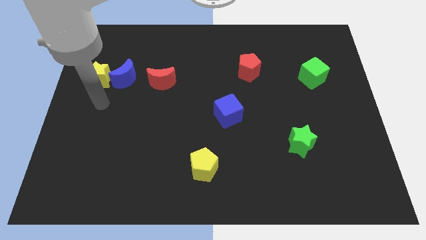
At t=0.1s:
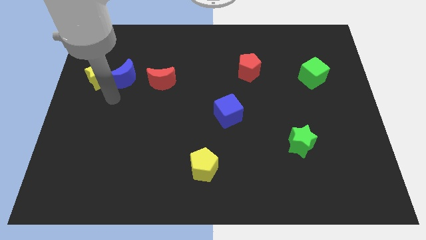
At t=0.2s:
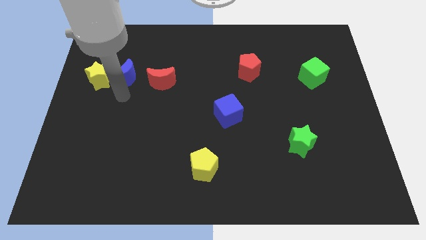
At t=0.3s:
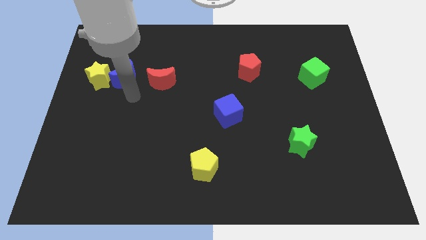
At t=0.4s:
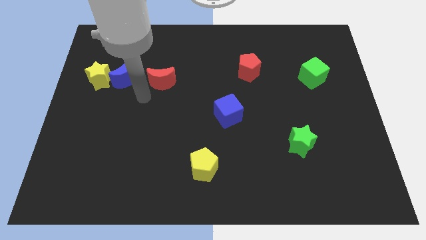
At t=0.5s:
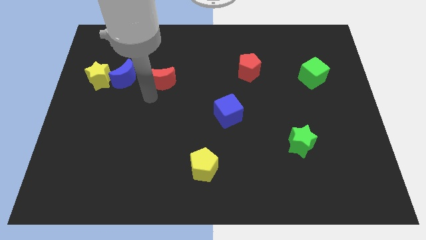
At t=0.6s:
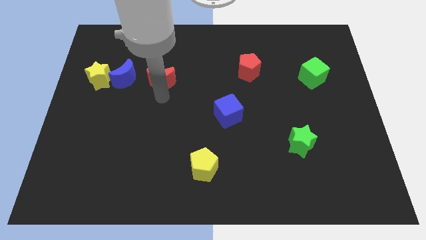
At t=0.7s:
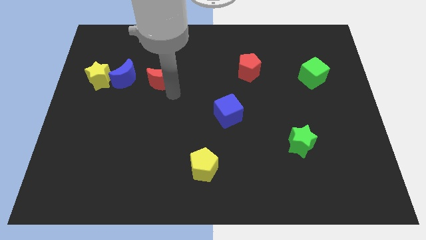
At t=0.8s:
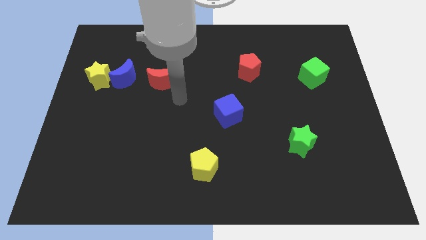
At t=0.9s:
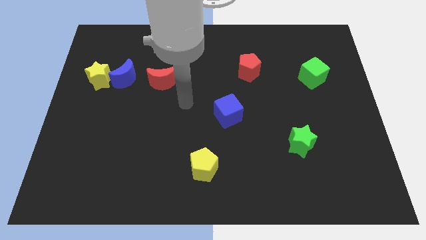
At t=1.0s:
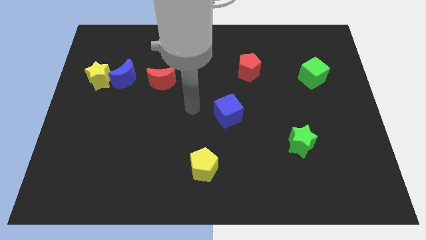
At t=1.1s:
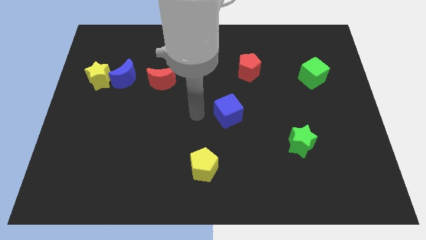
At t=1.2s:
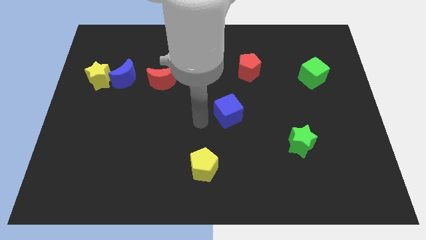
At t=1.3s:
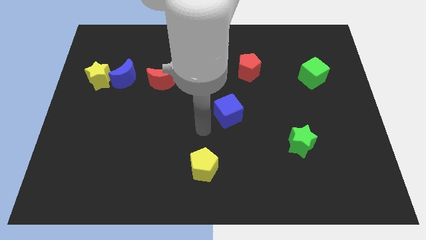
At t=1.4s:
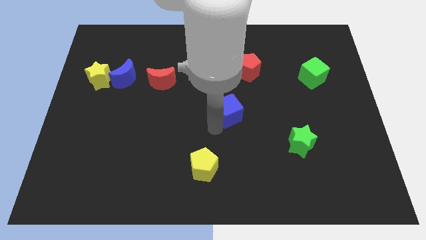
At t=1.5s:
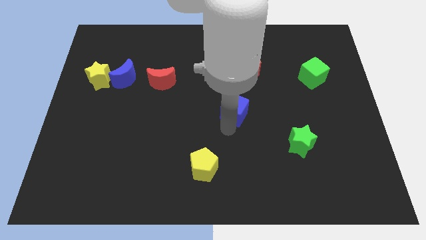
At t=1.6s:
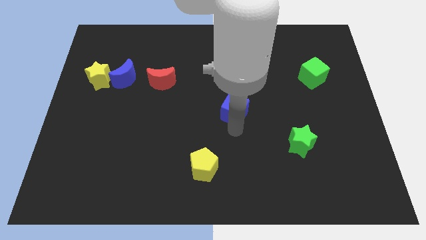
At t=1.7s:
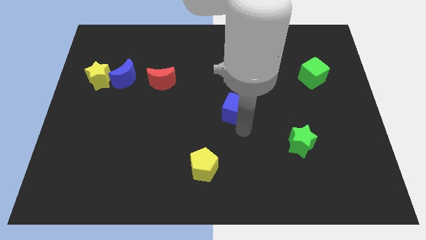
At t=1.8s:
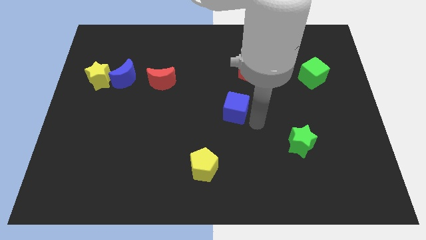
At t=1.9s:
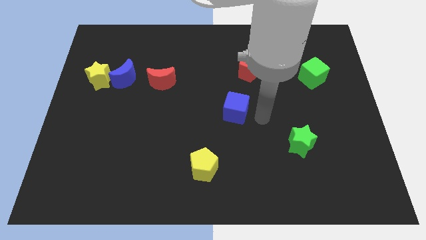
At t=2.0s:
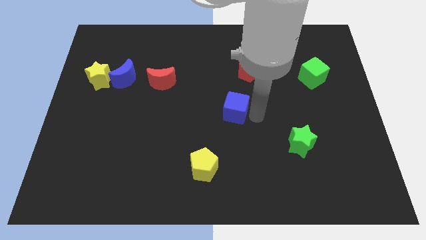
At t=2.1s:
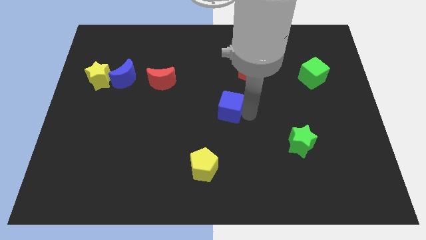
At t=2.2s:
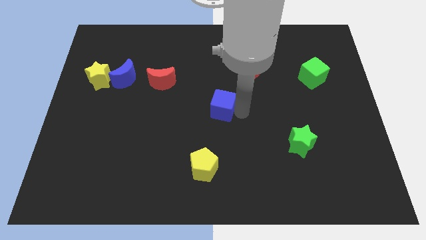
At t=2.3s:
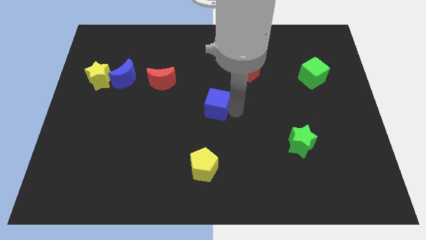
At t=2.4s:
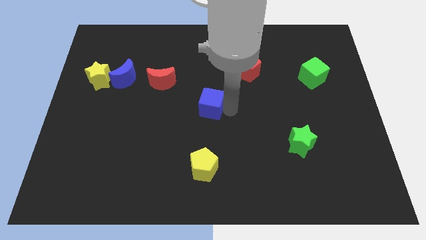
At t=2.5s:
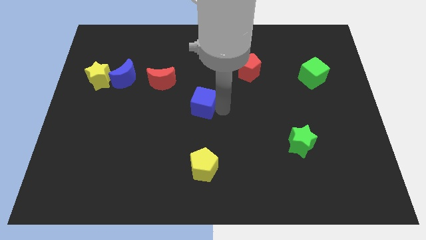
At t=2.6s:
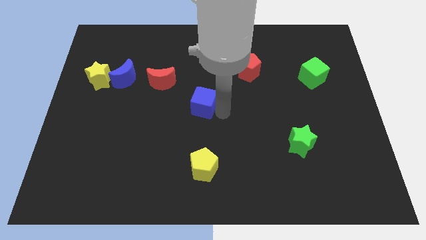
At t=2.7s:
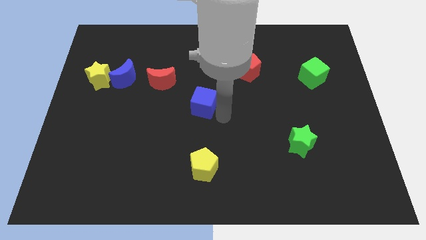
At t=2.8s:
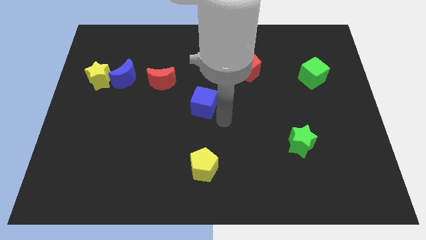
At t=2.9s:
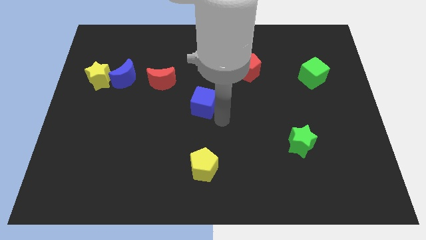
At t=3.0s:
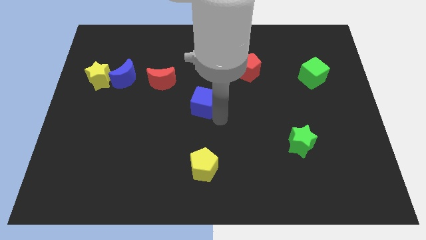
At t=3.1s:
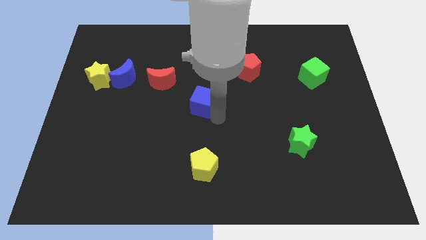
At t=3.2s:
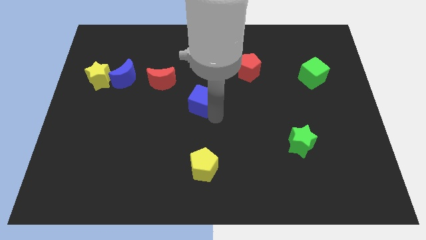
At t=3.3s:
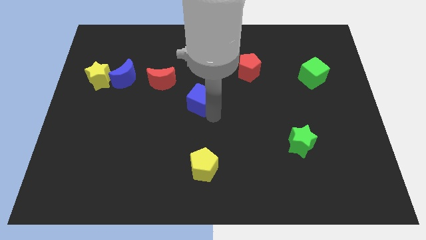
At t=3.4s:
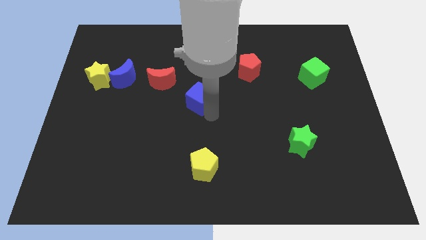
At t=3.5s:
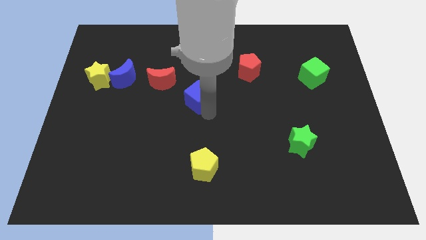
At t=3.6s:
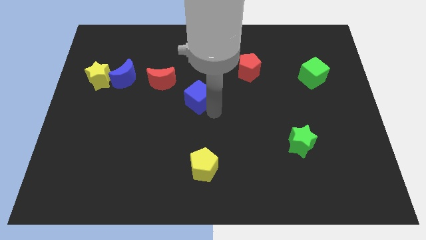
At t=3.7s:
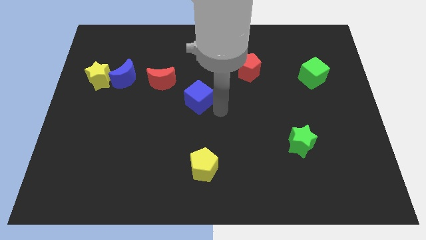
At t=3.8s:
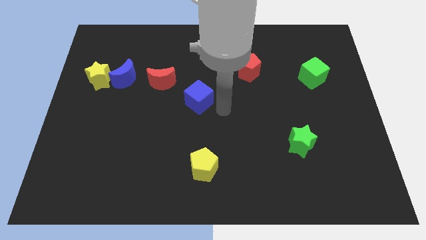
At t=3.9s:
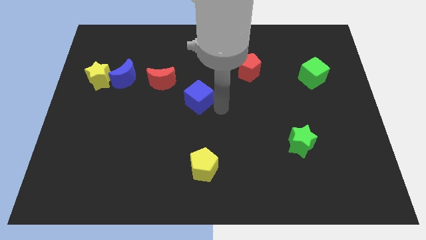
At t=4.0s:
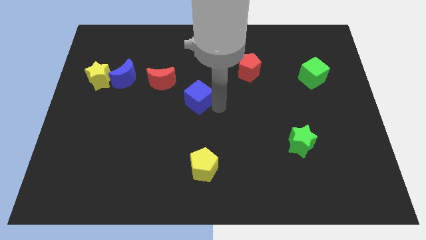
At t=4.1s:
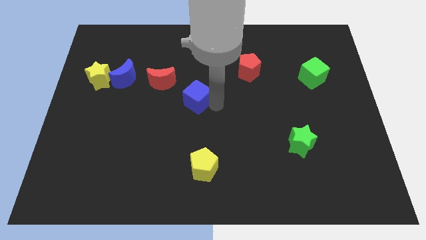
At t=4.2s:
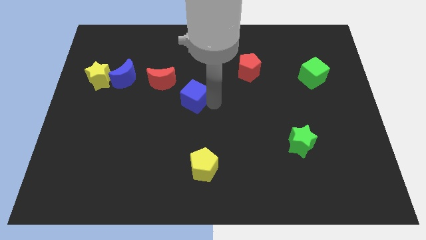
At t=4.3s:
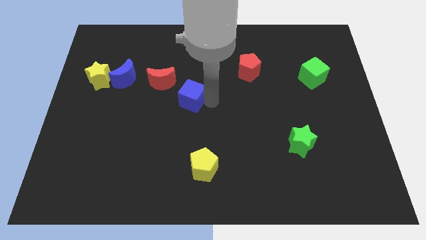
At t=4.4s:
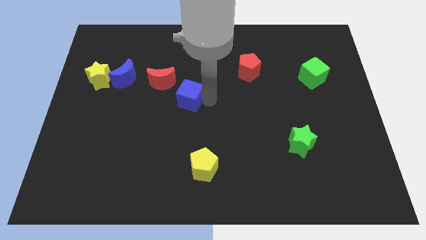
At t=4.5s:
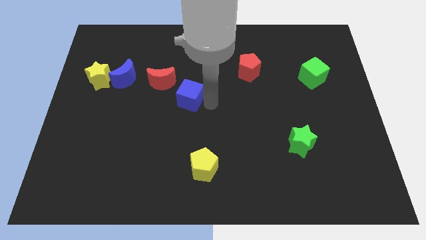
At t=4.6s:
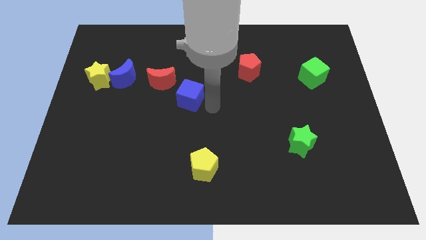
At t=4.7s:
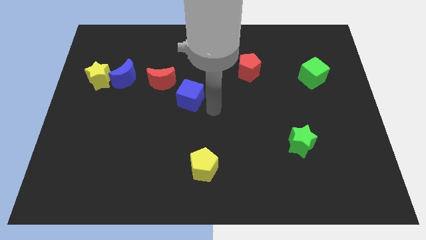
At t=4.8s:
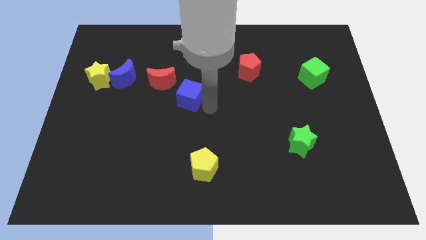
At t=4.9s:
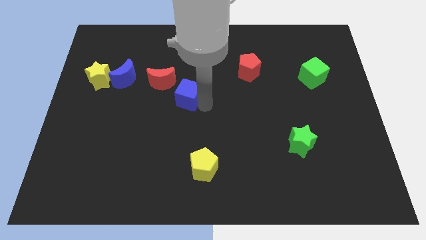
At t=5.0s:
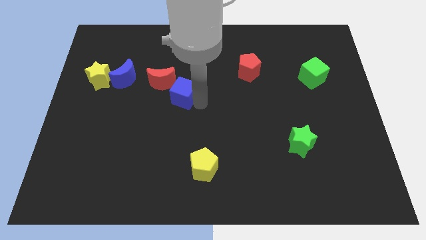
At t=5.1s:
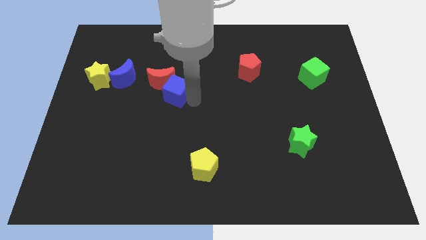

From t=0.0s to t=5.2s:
push the blue cube to the red moon

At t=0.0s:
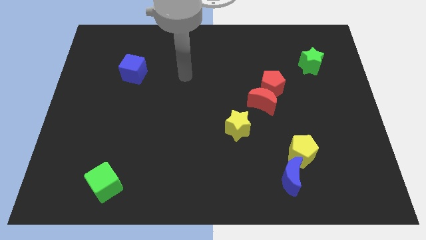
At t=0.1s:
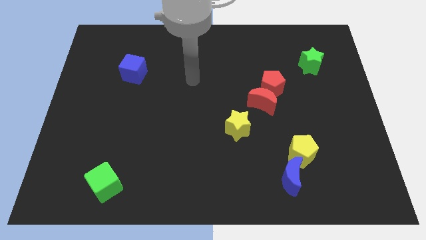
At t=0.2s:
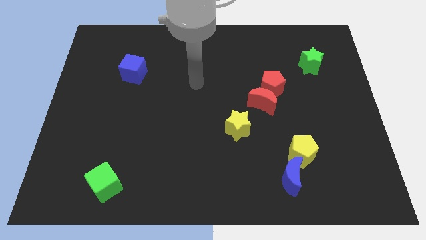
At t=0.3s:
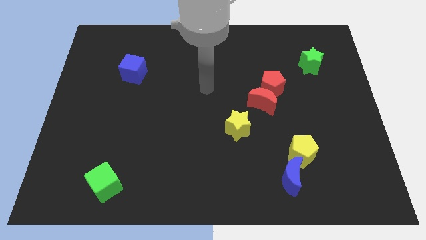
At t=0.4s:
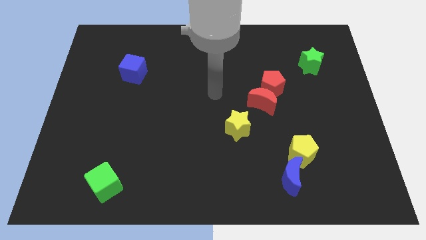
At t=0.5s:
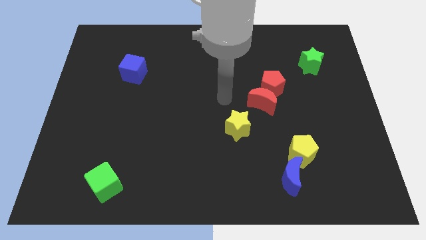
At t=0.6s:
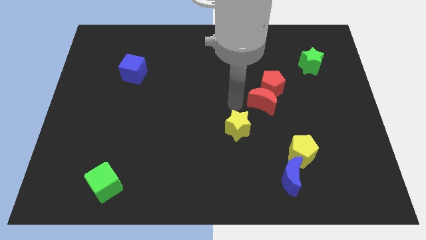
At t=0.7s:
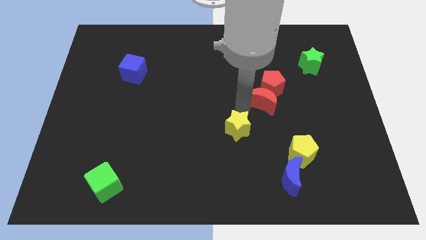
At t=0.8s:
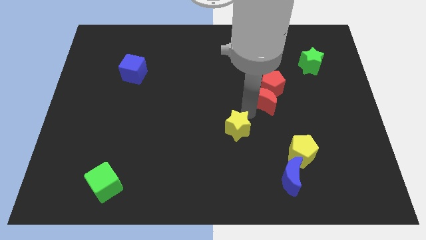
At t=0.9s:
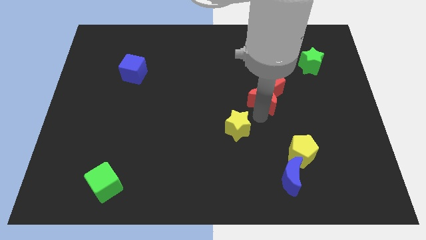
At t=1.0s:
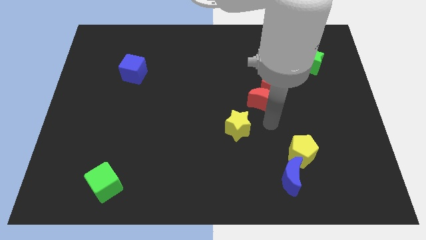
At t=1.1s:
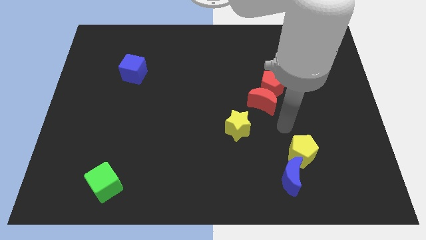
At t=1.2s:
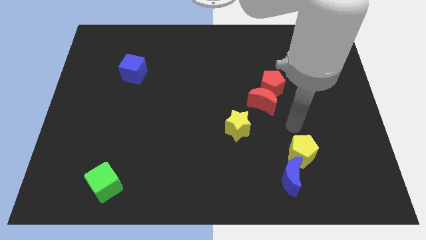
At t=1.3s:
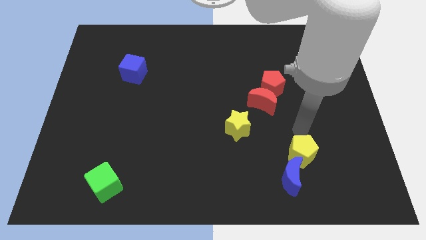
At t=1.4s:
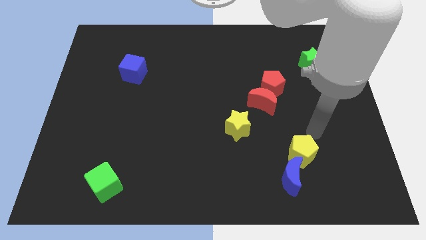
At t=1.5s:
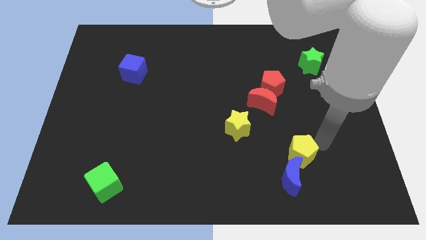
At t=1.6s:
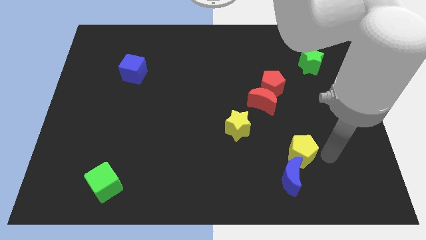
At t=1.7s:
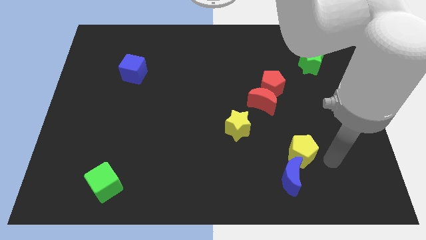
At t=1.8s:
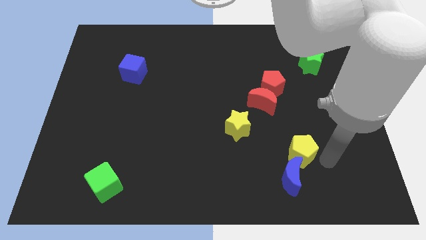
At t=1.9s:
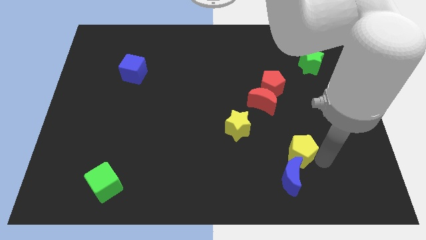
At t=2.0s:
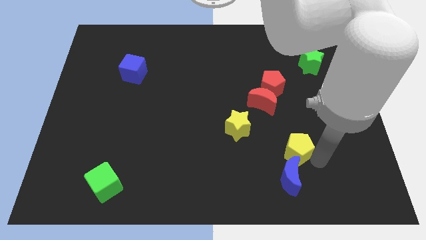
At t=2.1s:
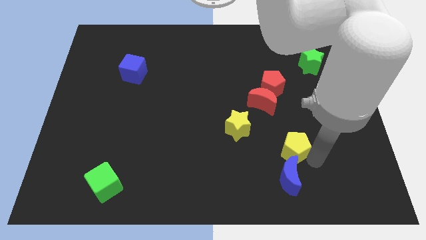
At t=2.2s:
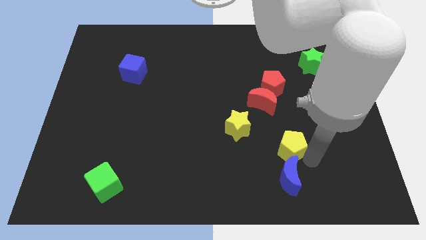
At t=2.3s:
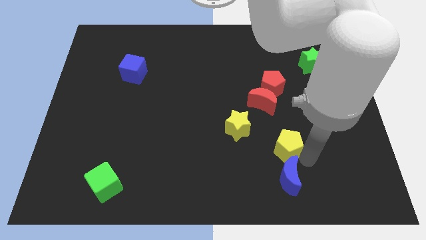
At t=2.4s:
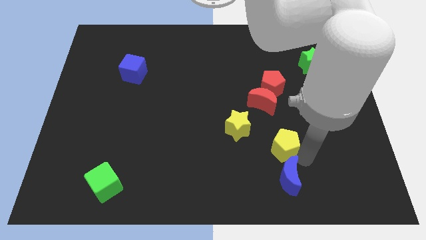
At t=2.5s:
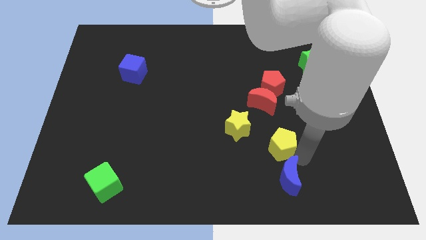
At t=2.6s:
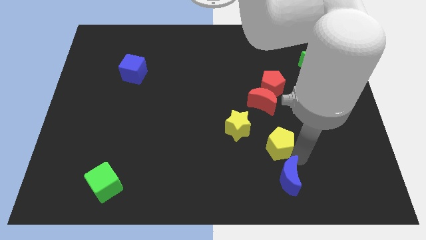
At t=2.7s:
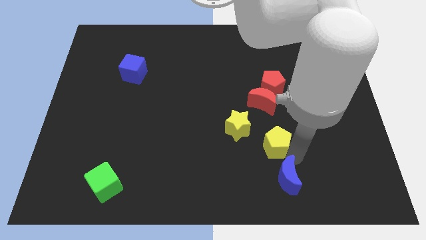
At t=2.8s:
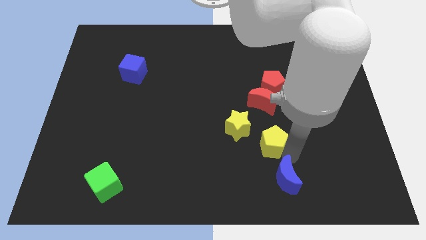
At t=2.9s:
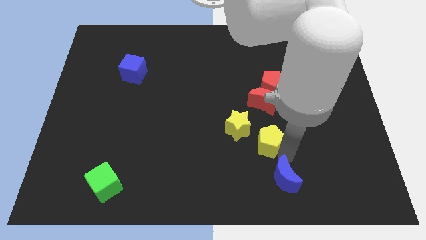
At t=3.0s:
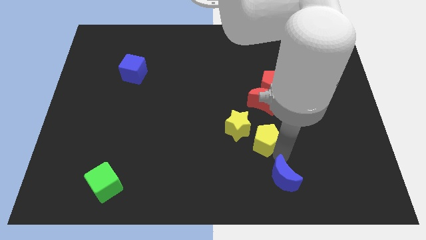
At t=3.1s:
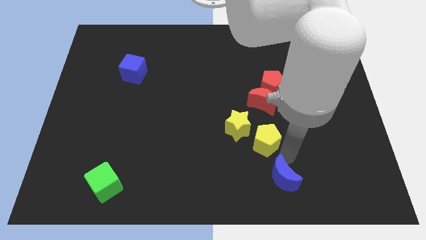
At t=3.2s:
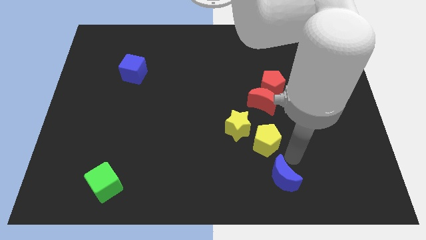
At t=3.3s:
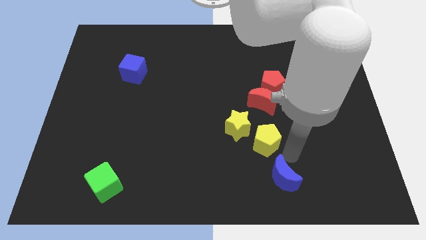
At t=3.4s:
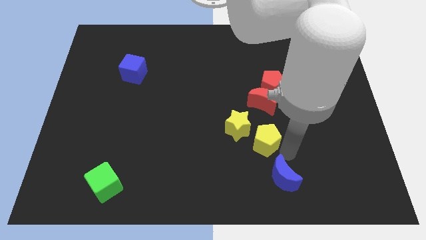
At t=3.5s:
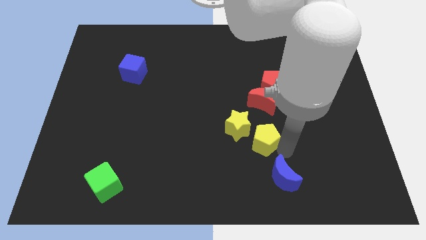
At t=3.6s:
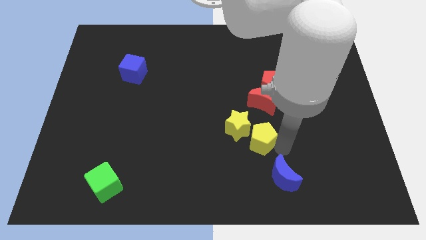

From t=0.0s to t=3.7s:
put the yellow pentagon next to the yellow star
